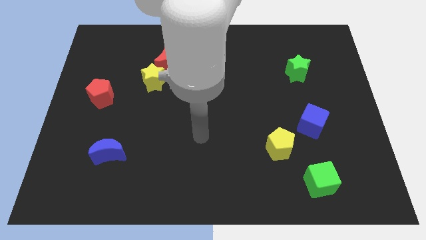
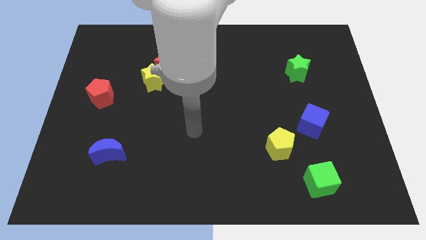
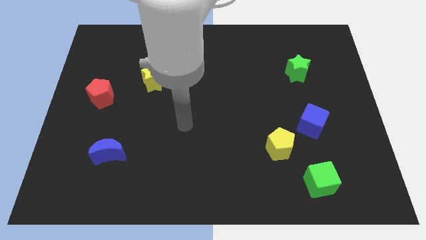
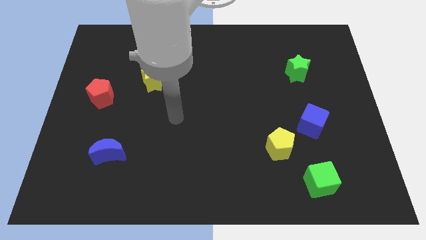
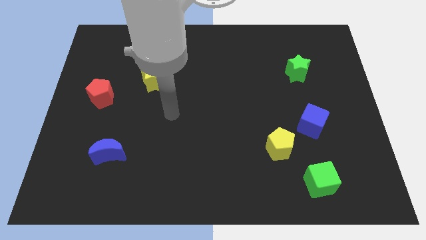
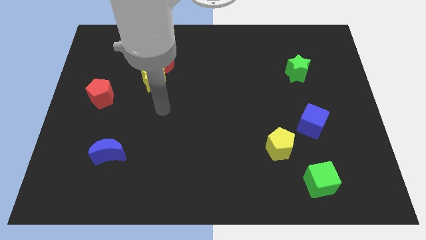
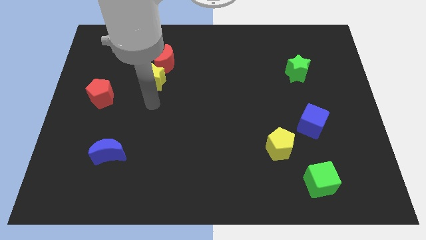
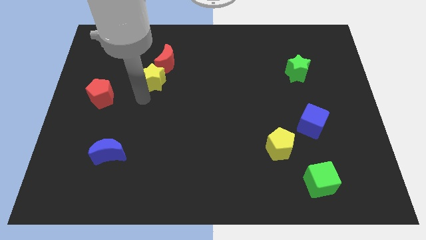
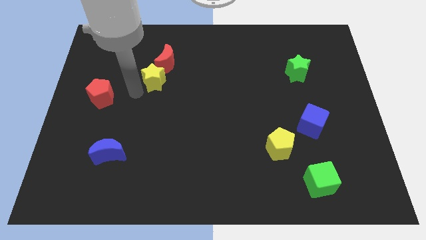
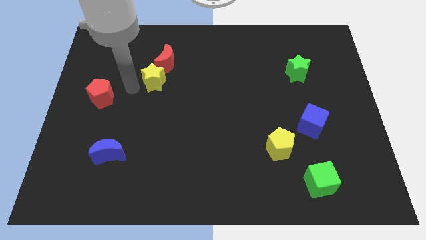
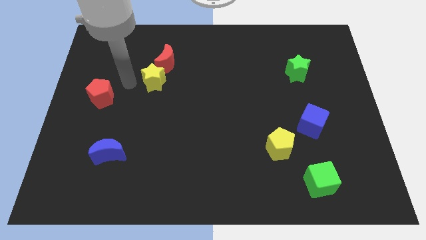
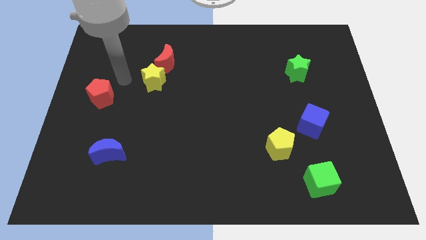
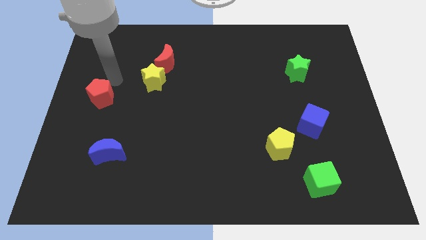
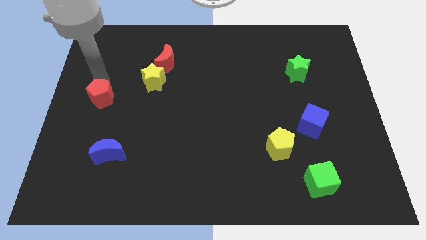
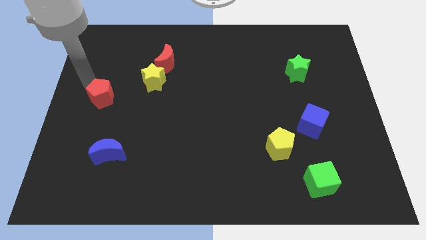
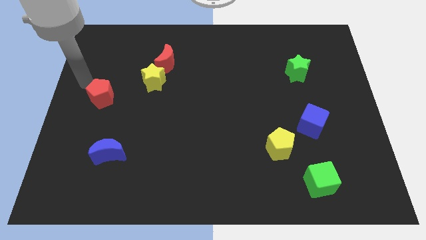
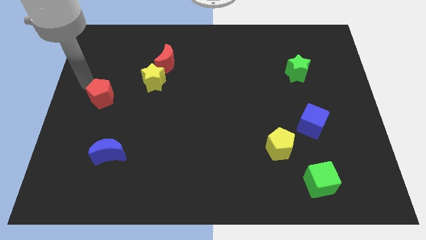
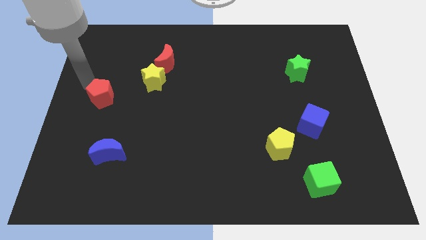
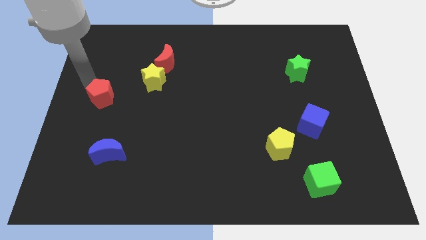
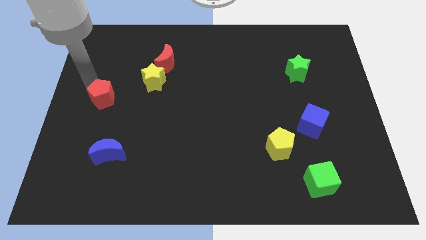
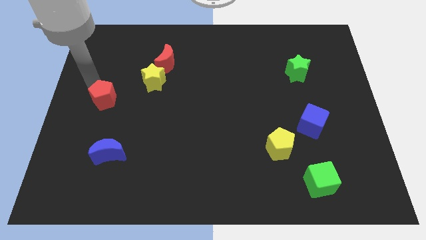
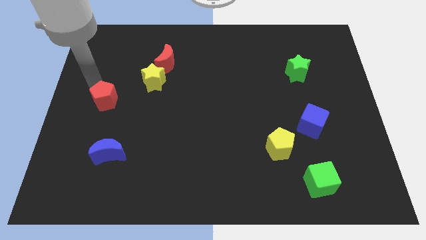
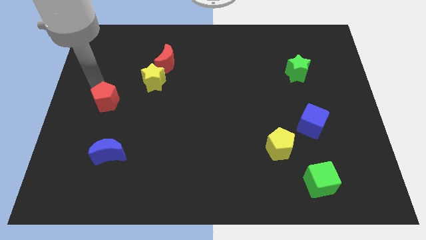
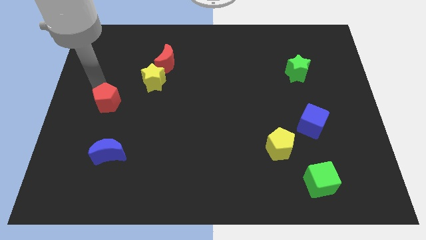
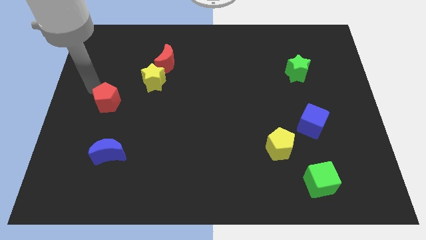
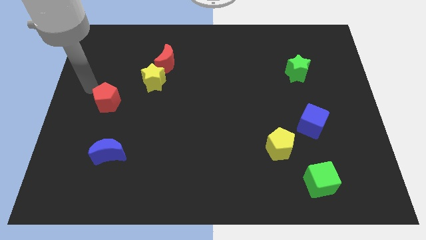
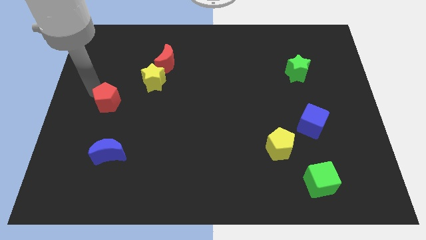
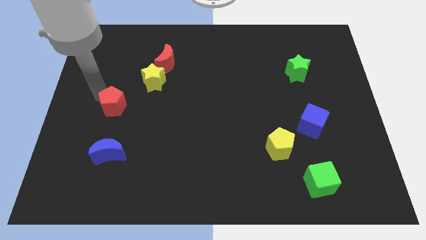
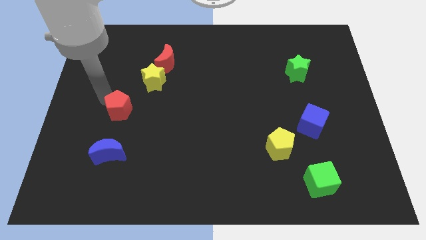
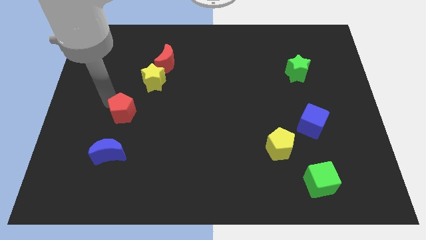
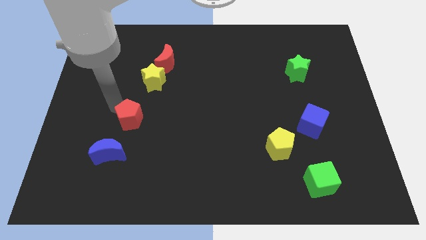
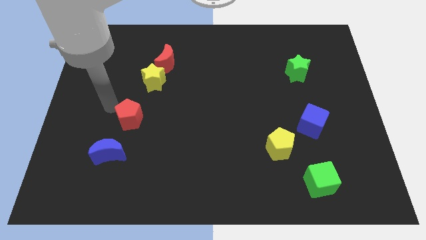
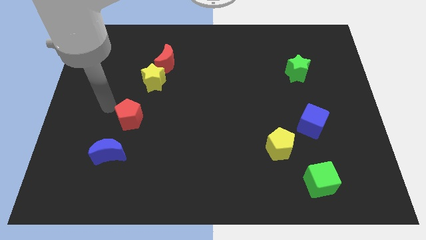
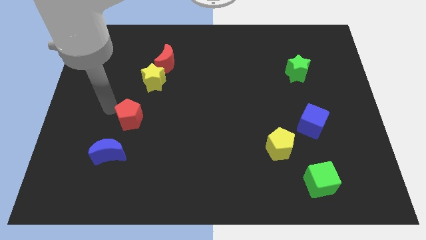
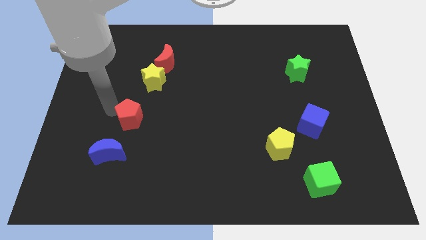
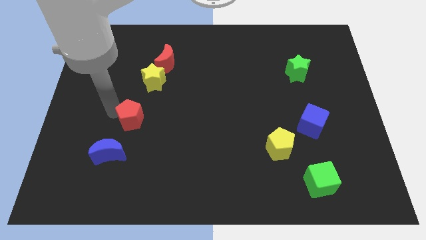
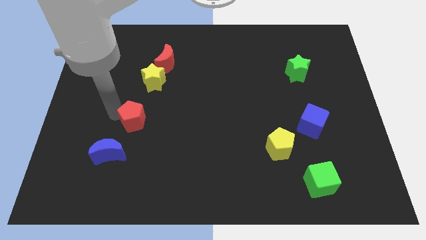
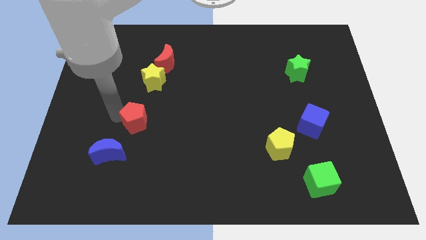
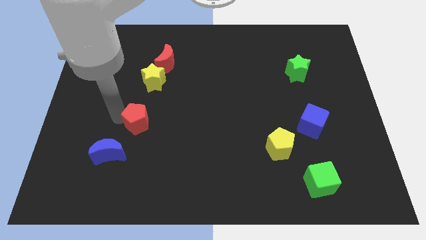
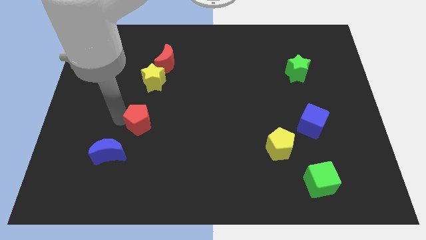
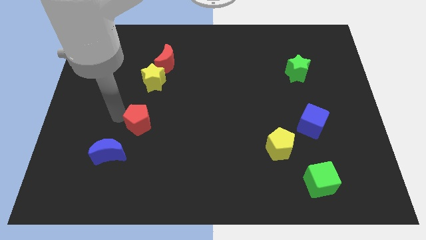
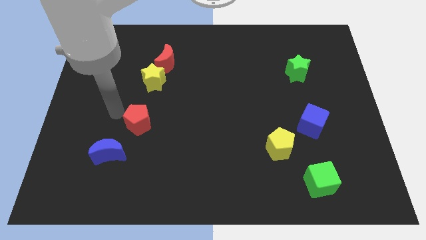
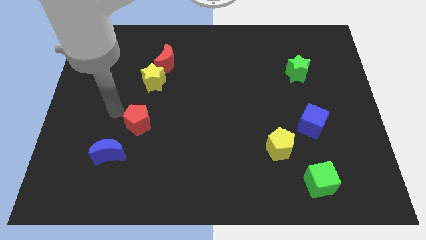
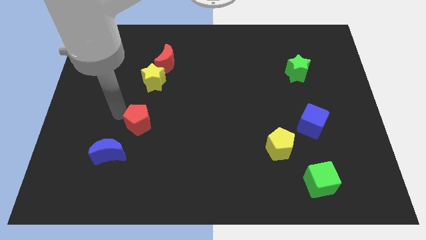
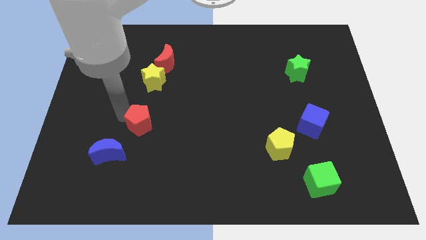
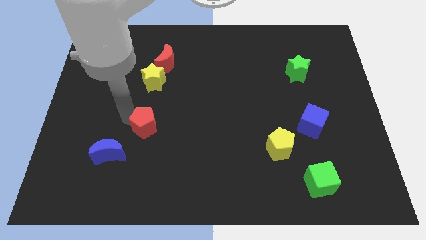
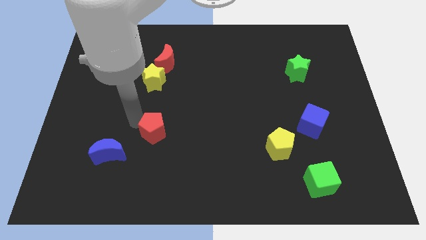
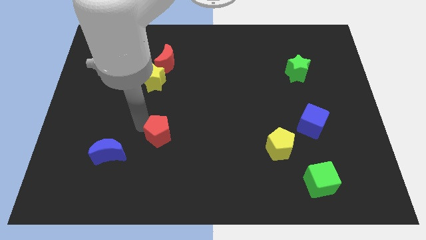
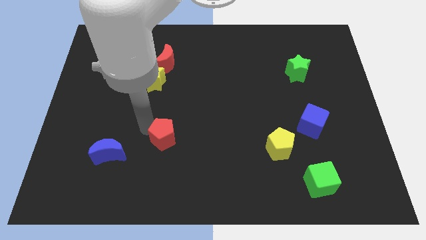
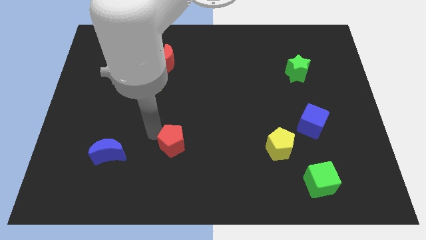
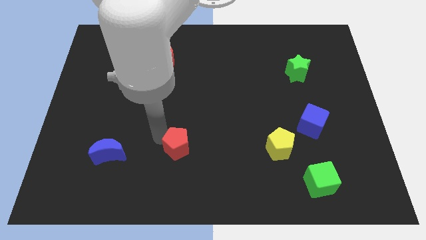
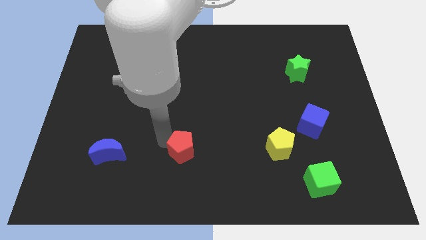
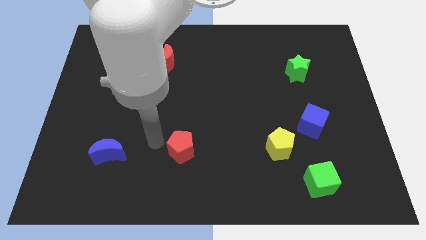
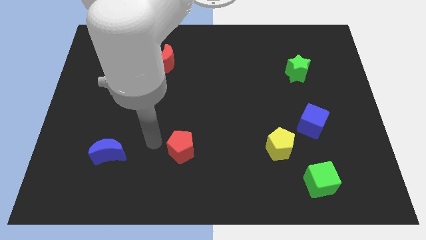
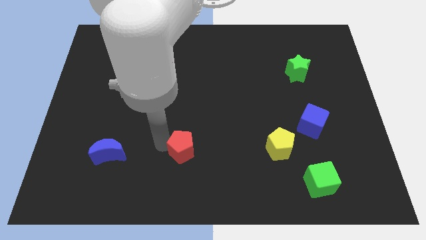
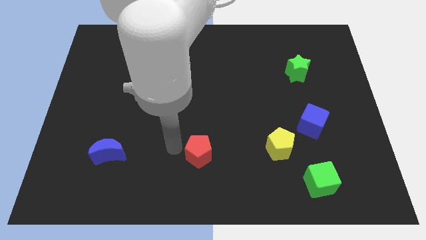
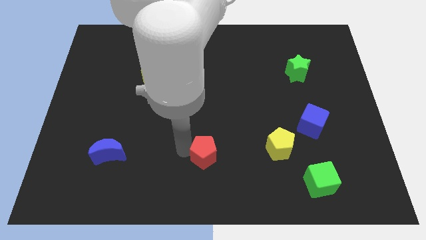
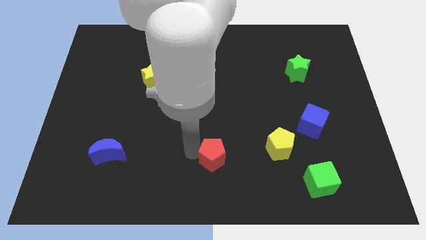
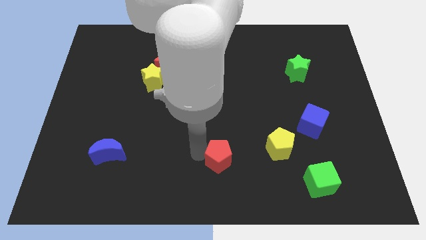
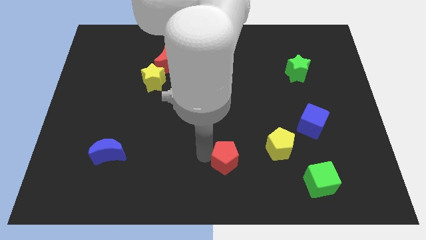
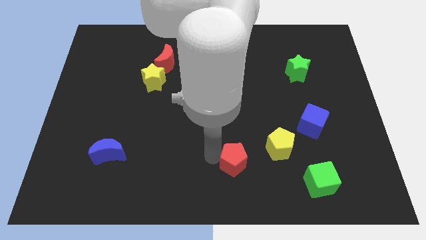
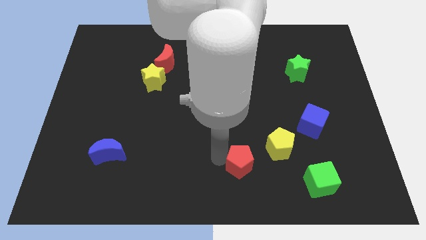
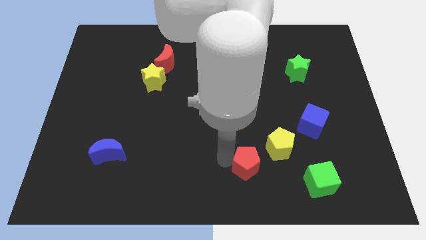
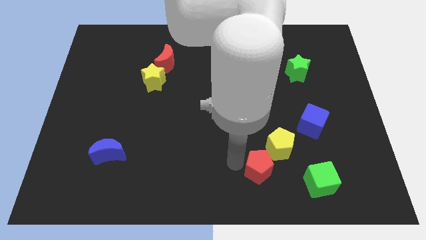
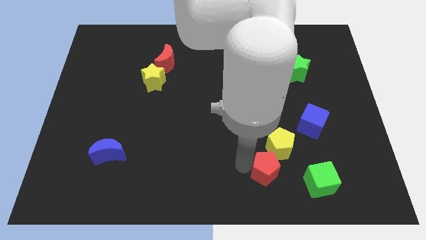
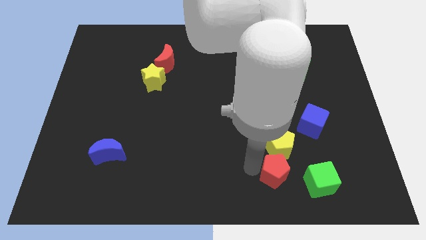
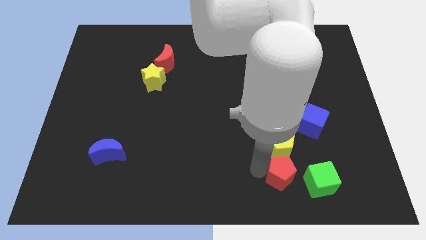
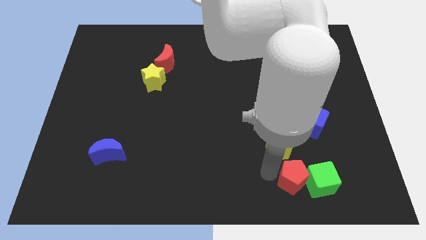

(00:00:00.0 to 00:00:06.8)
move the red pentagon towards the green cube

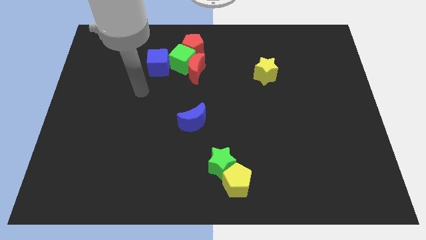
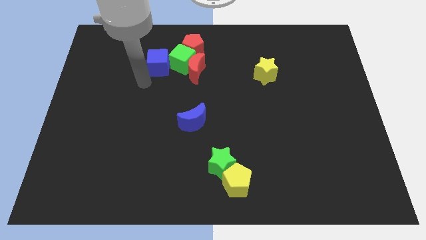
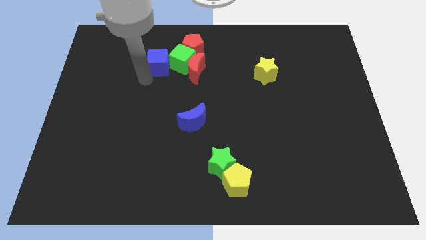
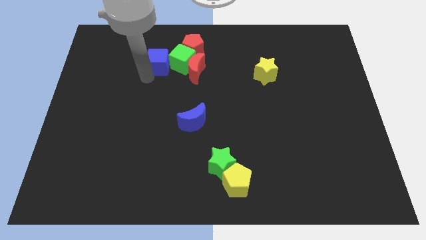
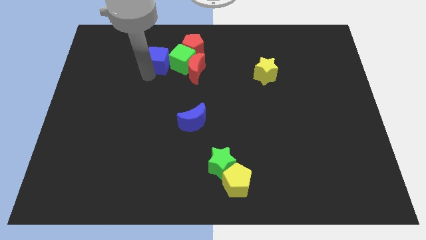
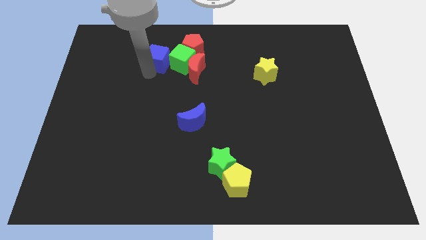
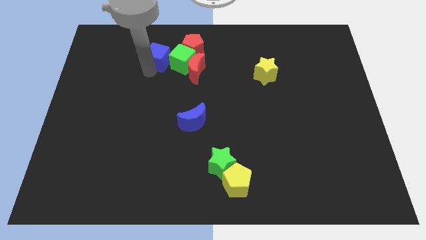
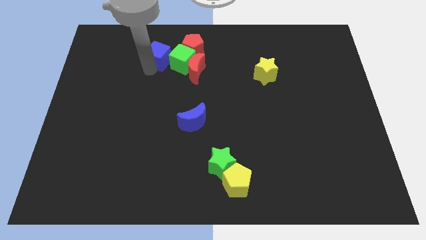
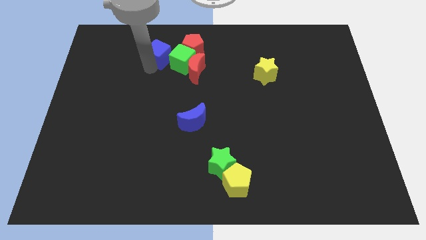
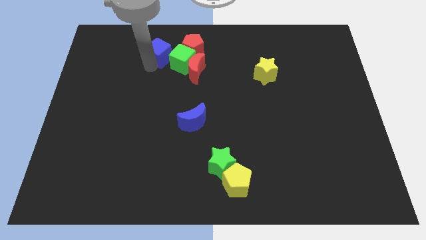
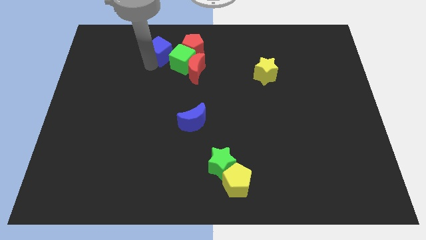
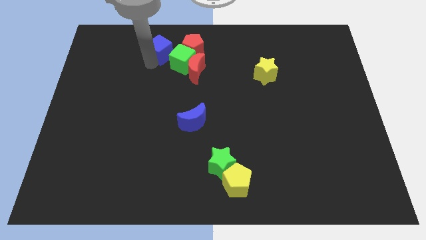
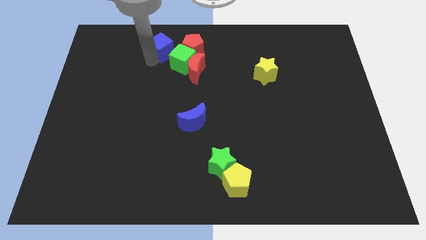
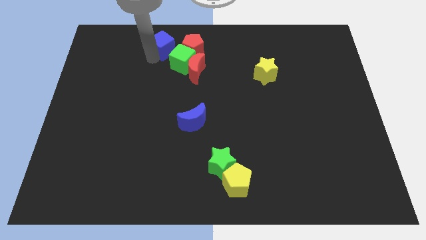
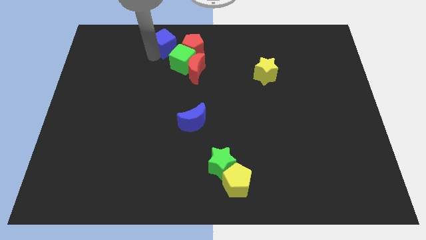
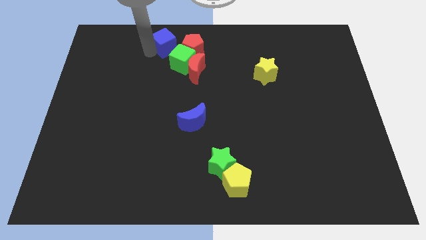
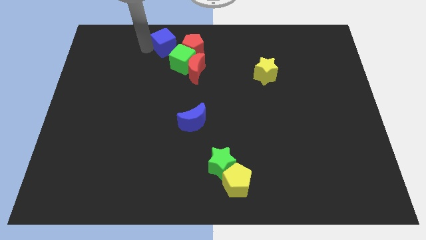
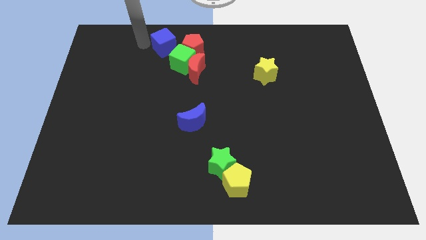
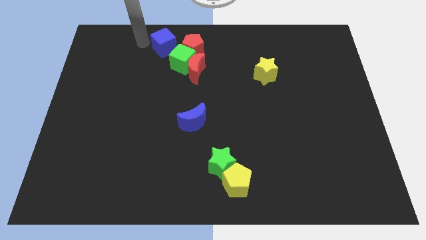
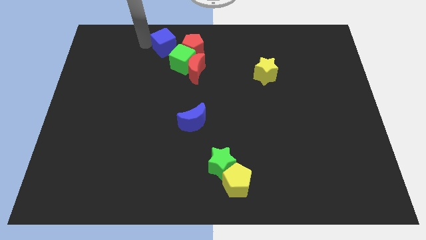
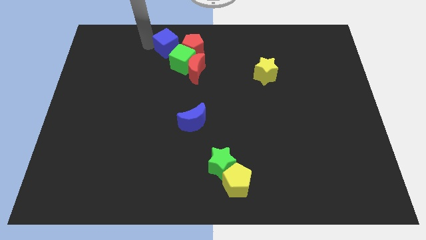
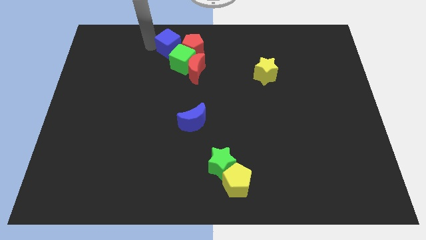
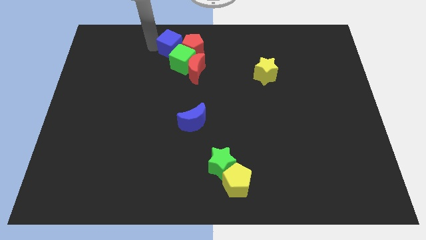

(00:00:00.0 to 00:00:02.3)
push the blue cube to the red pentagon
